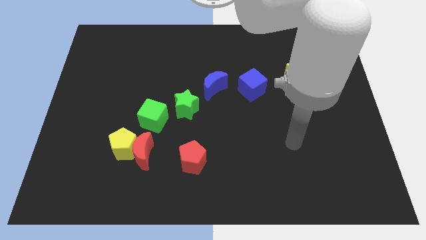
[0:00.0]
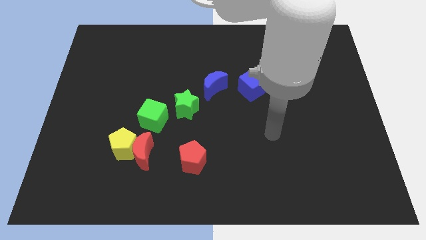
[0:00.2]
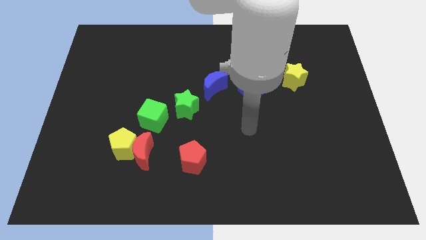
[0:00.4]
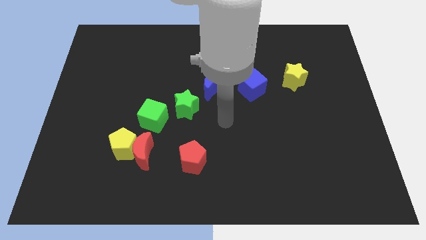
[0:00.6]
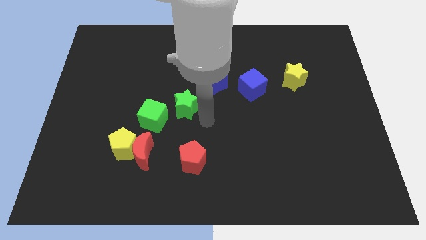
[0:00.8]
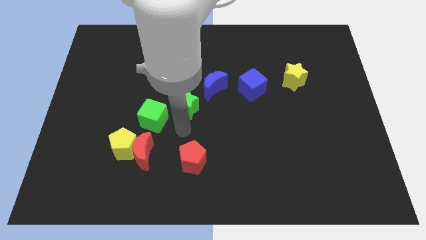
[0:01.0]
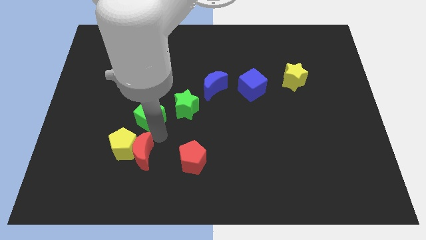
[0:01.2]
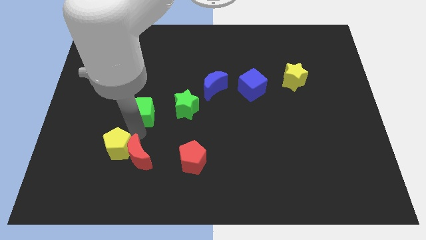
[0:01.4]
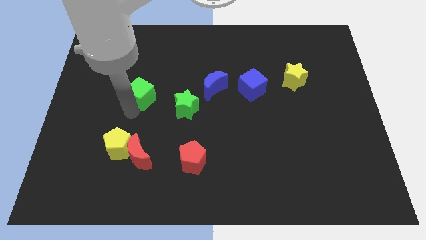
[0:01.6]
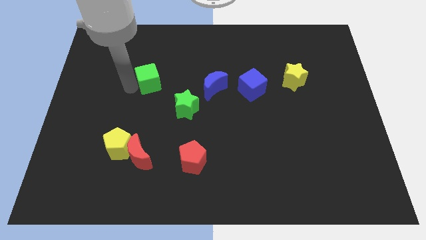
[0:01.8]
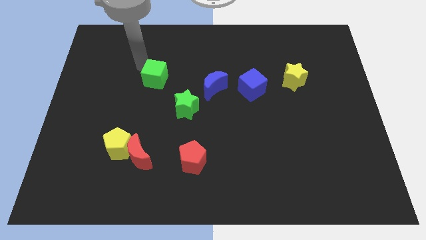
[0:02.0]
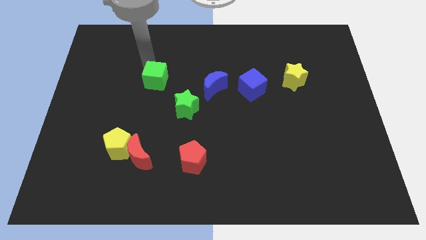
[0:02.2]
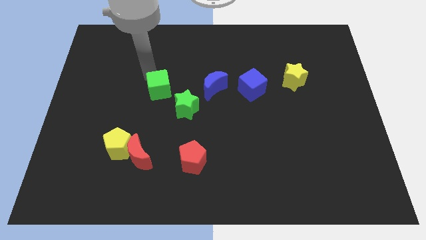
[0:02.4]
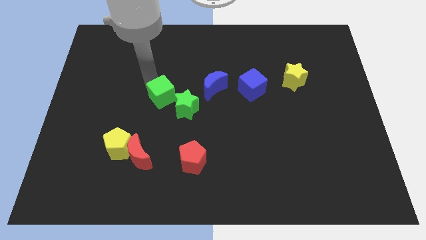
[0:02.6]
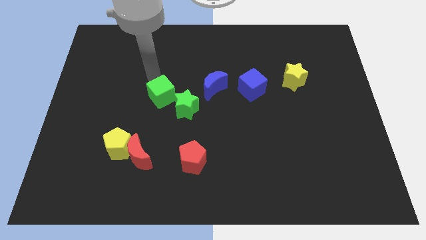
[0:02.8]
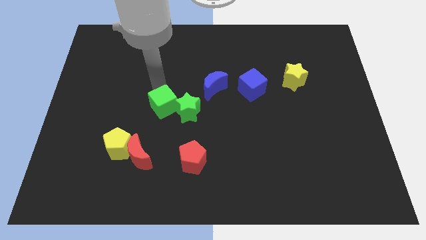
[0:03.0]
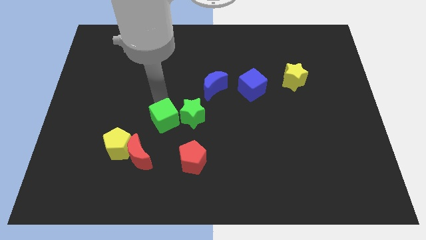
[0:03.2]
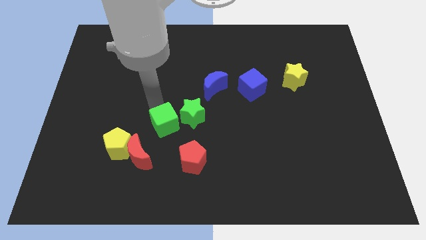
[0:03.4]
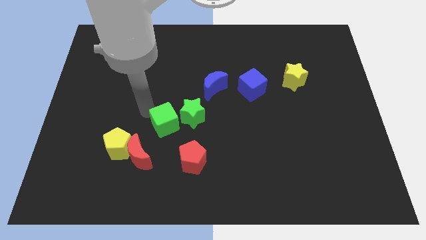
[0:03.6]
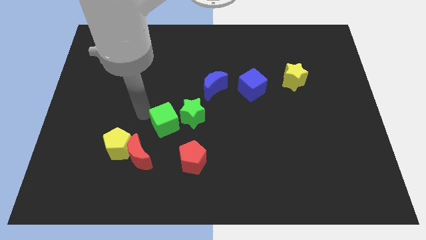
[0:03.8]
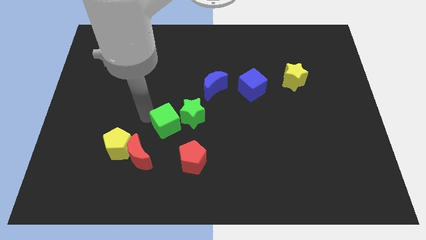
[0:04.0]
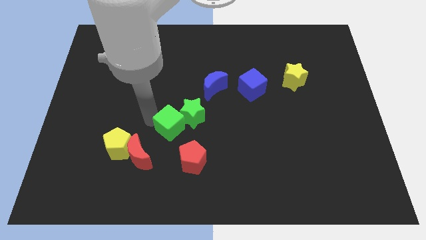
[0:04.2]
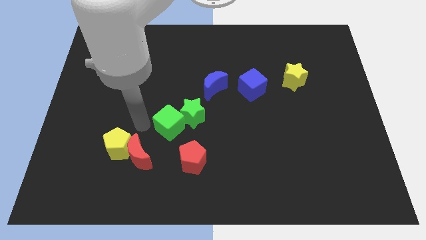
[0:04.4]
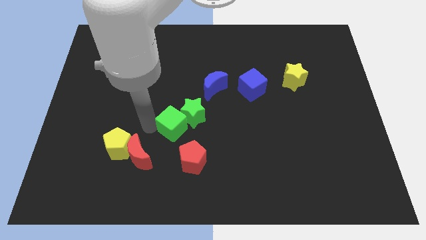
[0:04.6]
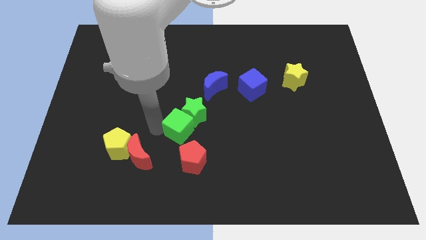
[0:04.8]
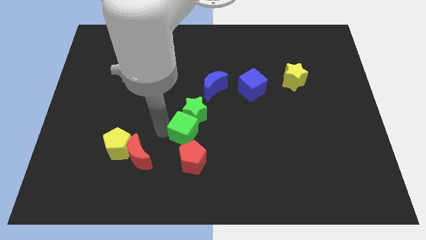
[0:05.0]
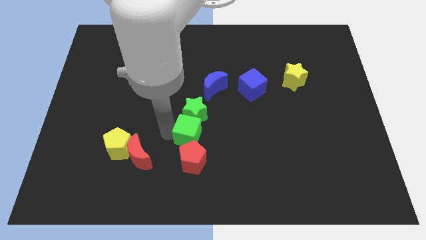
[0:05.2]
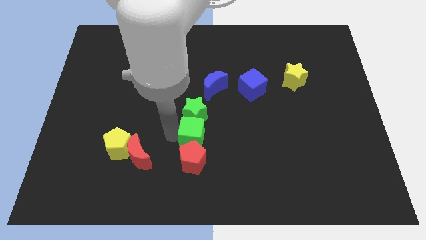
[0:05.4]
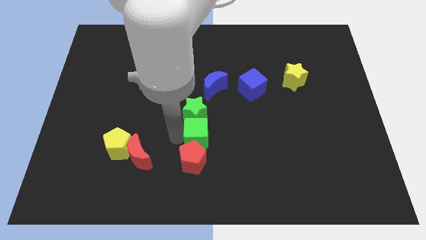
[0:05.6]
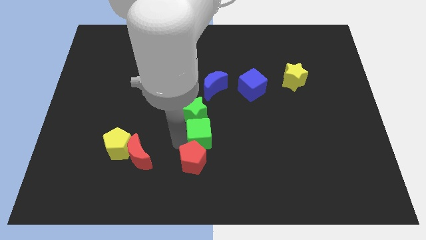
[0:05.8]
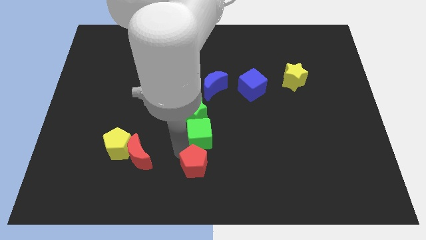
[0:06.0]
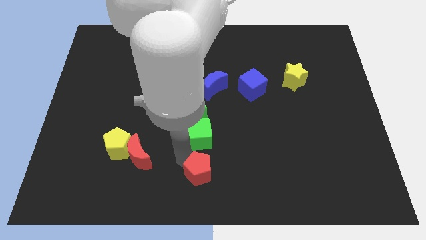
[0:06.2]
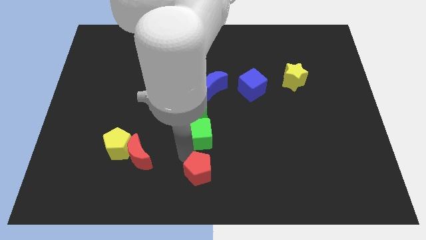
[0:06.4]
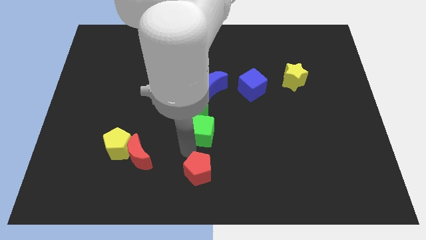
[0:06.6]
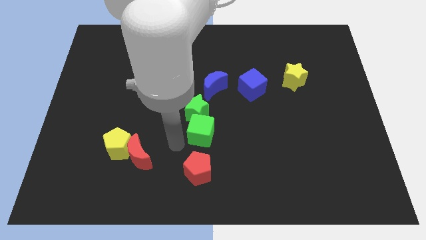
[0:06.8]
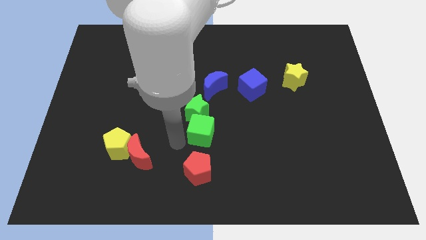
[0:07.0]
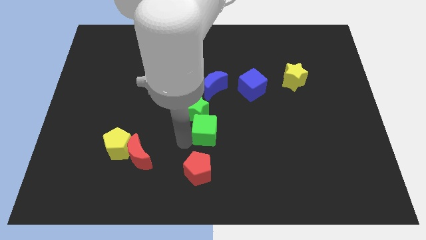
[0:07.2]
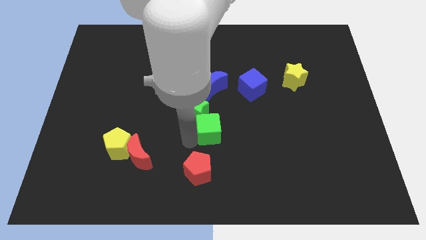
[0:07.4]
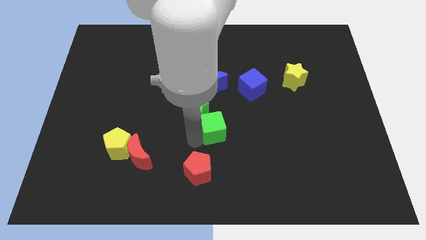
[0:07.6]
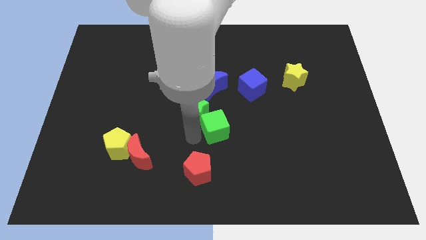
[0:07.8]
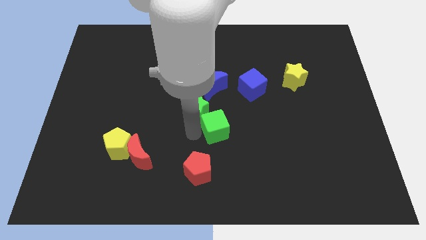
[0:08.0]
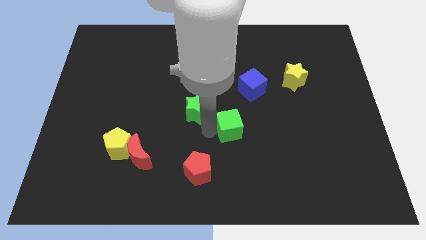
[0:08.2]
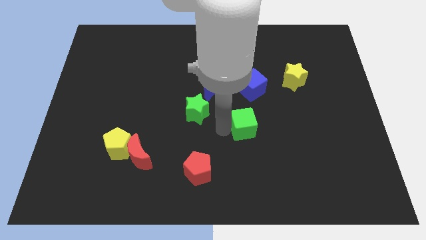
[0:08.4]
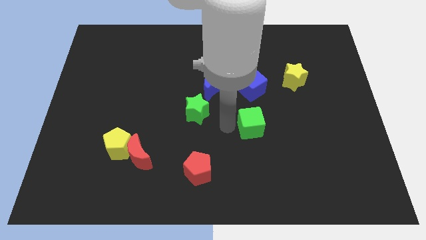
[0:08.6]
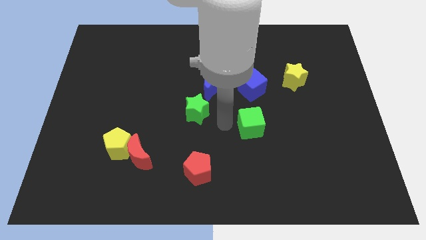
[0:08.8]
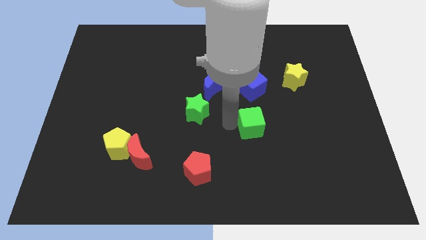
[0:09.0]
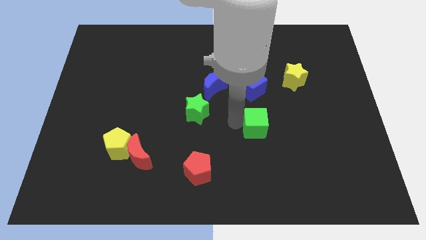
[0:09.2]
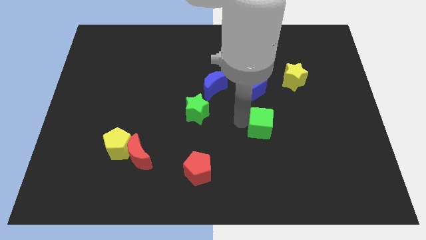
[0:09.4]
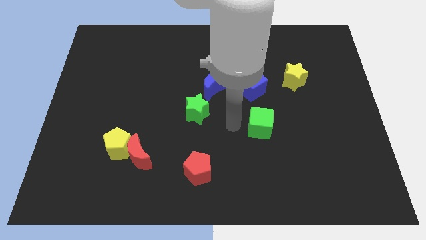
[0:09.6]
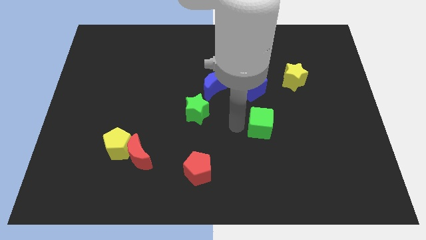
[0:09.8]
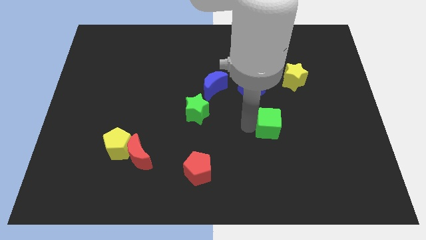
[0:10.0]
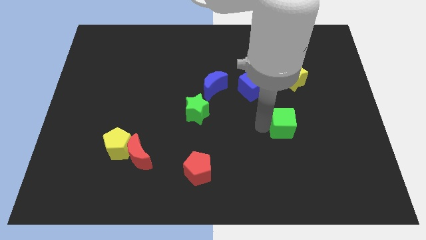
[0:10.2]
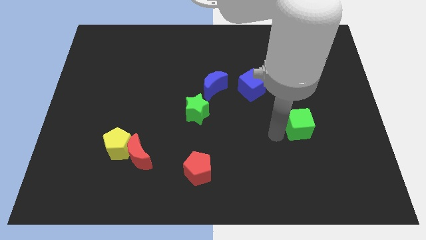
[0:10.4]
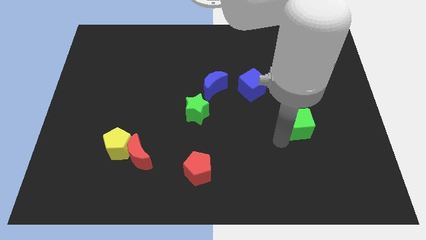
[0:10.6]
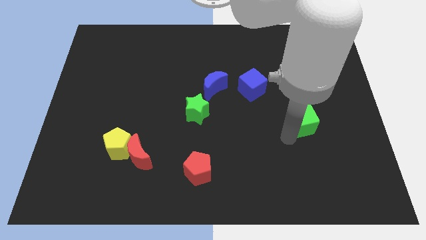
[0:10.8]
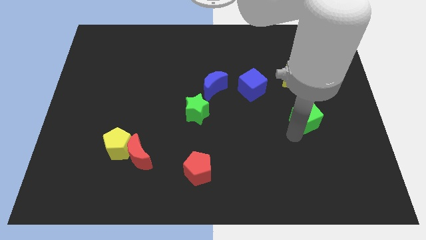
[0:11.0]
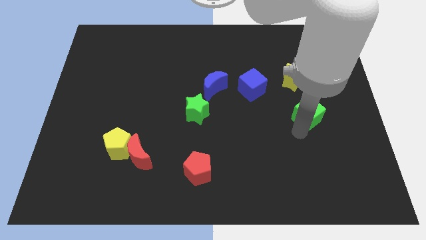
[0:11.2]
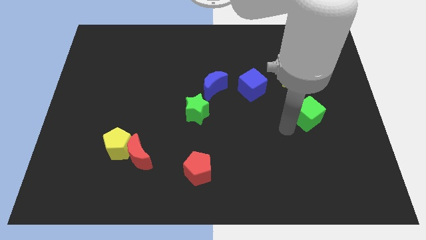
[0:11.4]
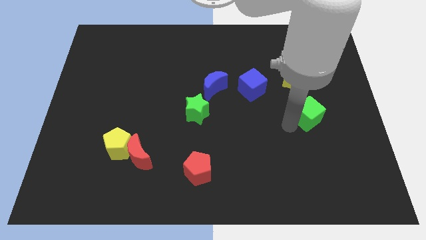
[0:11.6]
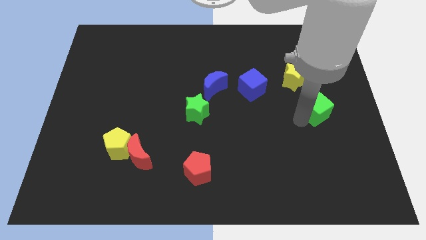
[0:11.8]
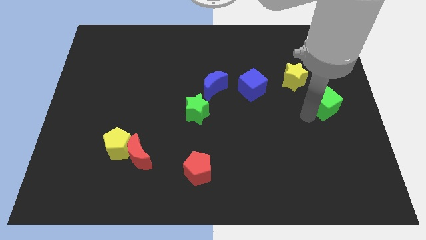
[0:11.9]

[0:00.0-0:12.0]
put the green cube to the right side of the board
